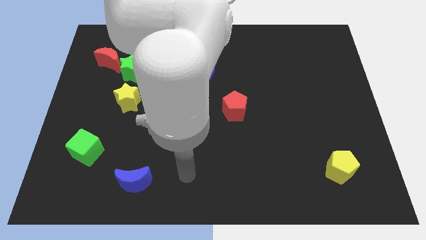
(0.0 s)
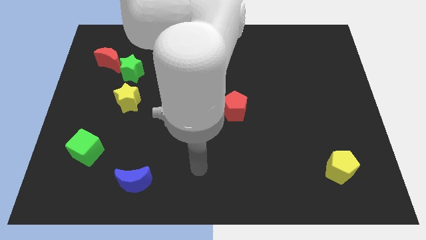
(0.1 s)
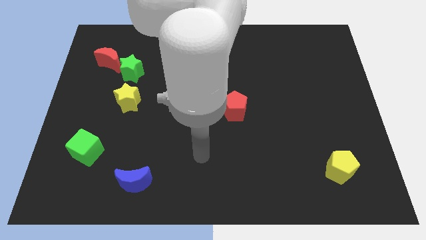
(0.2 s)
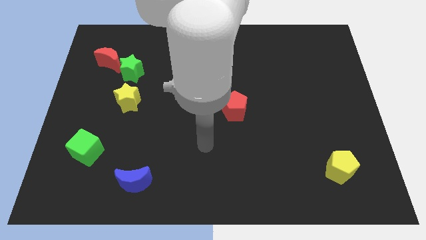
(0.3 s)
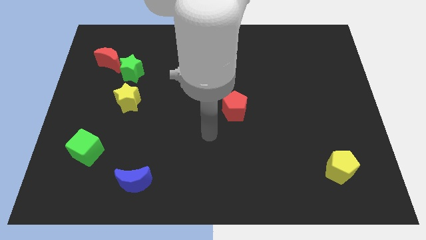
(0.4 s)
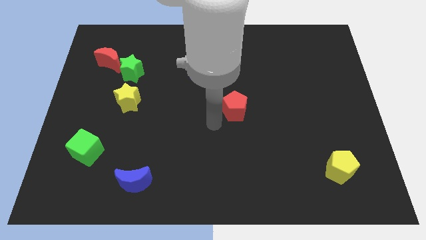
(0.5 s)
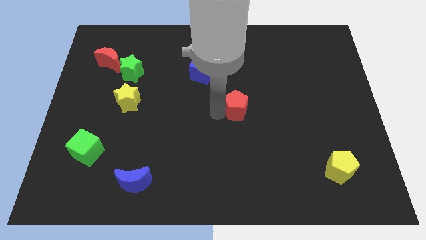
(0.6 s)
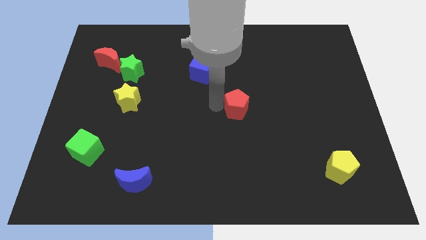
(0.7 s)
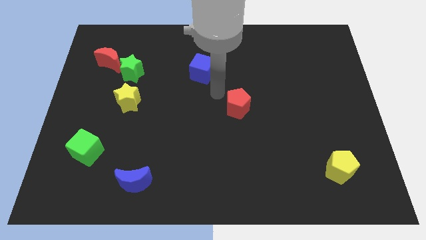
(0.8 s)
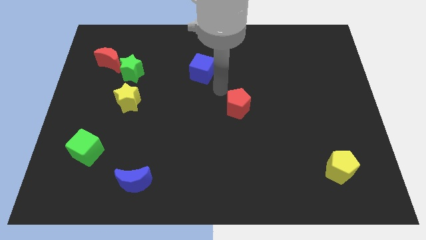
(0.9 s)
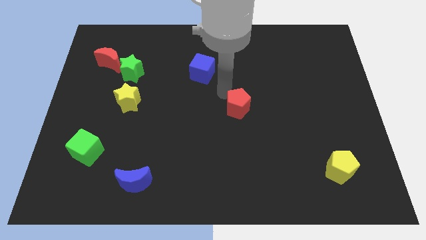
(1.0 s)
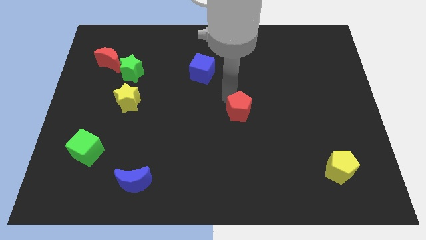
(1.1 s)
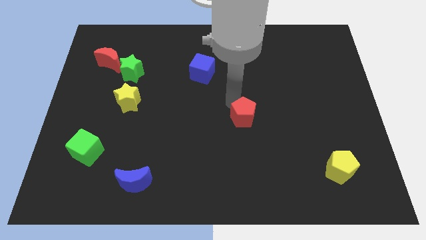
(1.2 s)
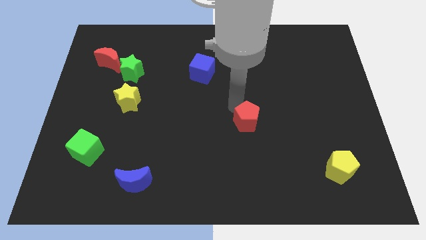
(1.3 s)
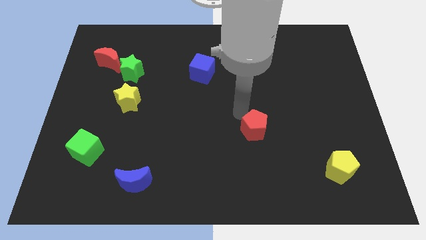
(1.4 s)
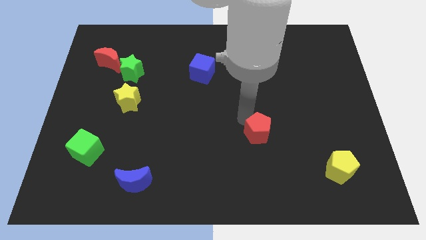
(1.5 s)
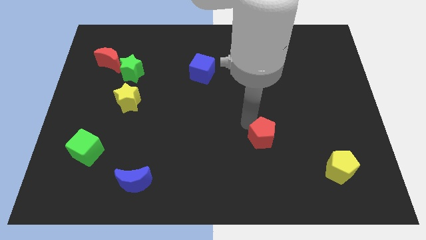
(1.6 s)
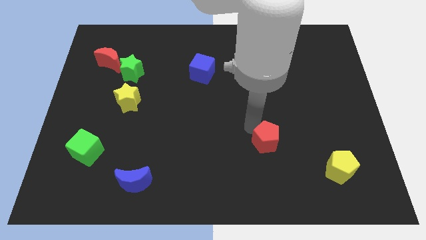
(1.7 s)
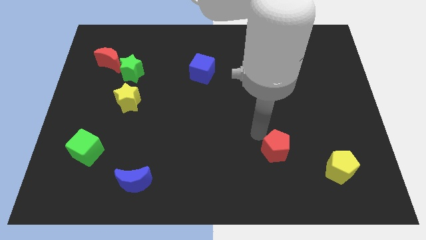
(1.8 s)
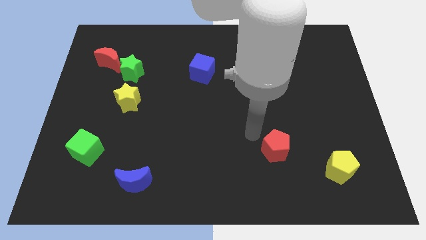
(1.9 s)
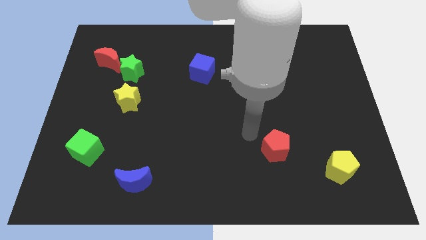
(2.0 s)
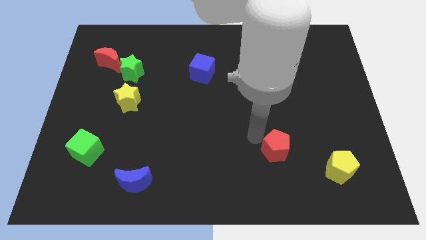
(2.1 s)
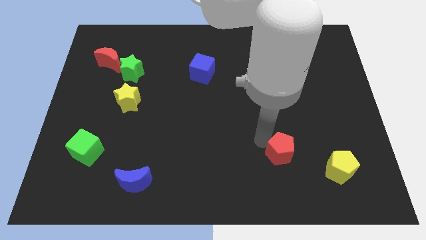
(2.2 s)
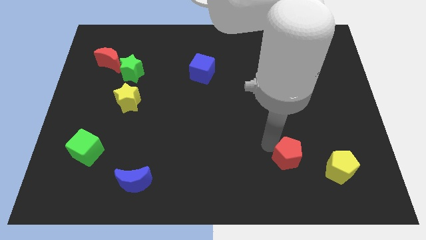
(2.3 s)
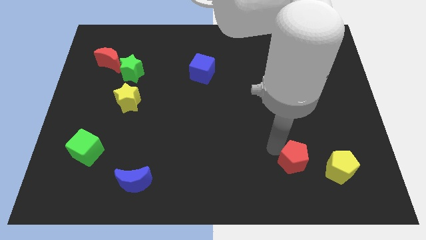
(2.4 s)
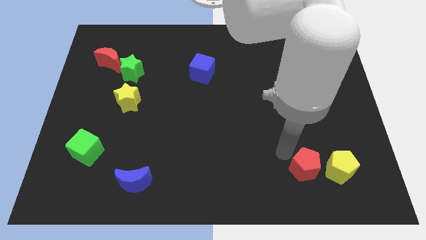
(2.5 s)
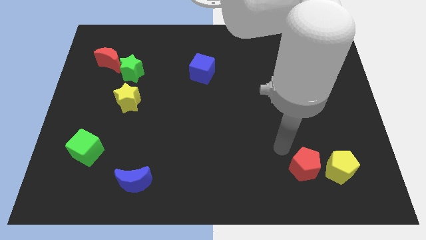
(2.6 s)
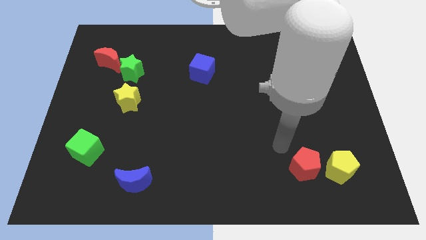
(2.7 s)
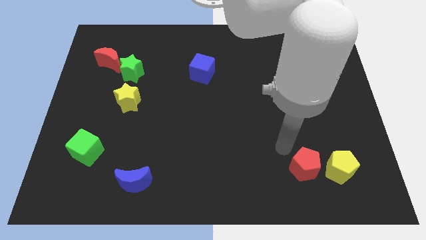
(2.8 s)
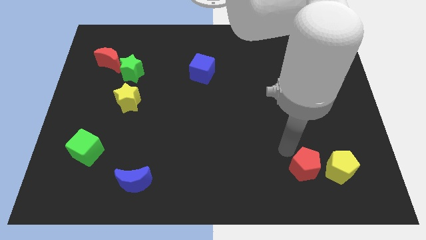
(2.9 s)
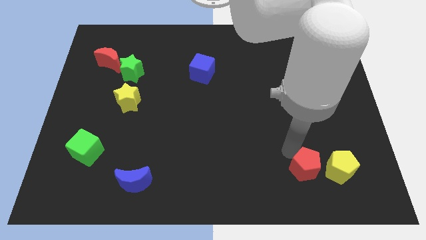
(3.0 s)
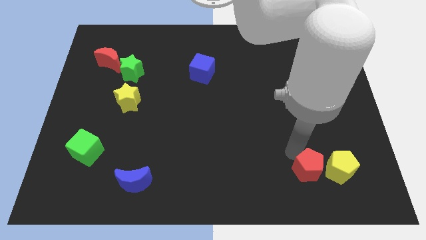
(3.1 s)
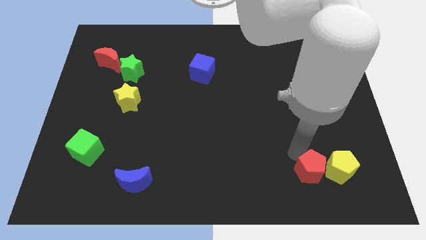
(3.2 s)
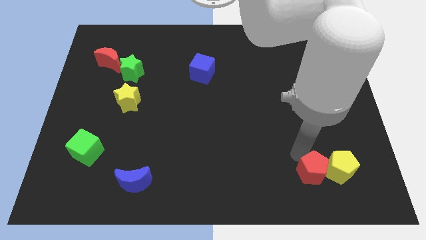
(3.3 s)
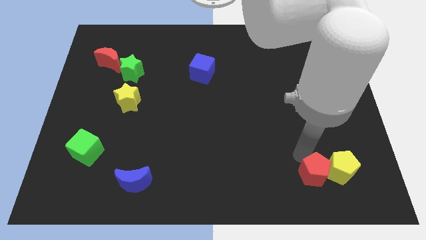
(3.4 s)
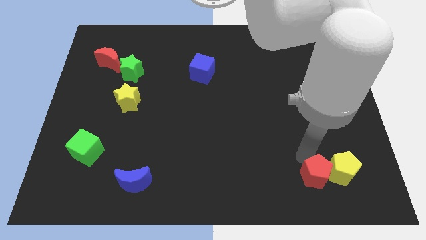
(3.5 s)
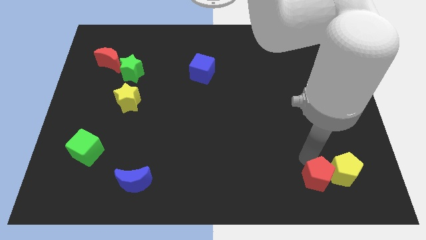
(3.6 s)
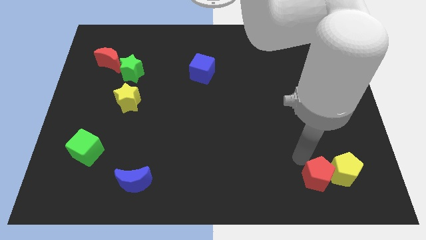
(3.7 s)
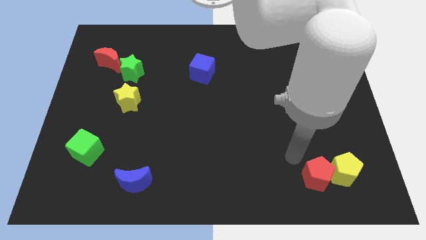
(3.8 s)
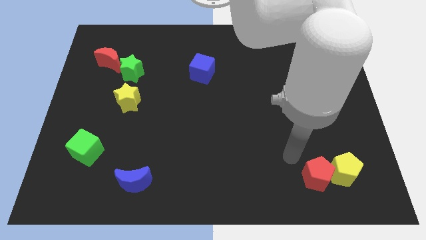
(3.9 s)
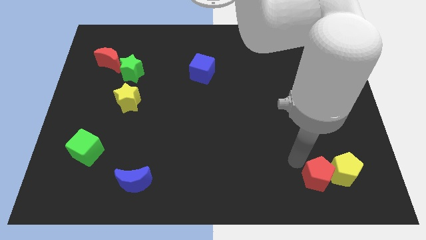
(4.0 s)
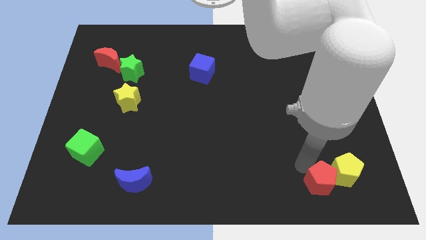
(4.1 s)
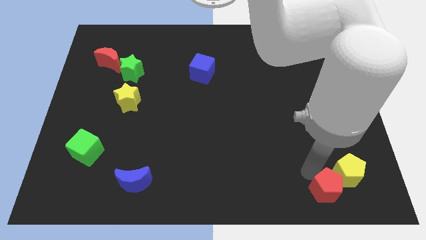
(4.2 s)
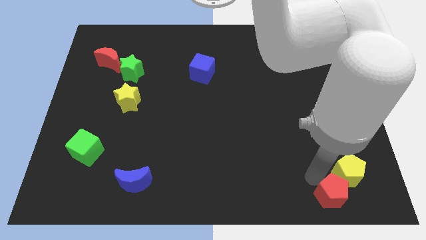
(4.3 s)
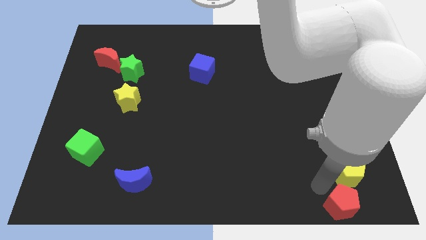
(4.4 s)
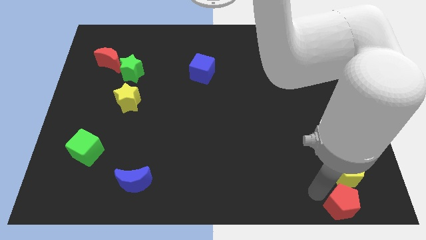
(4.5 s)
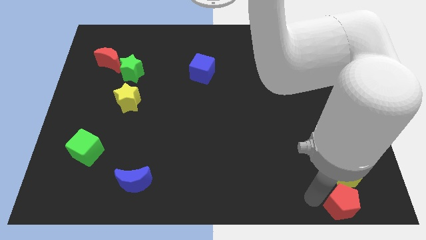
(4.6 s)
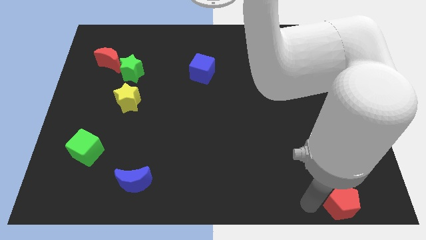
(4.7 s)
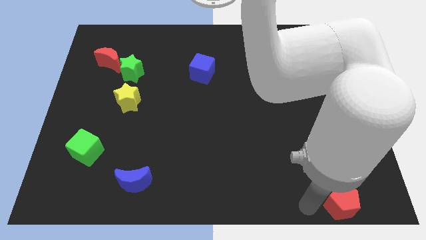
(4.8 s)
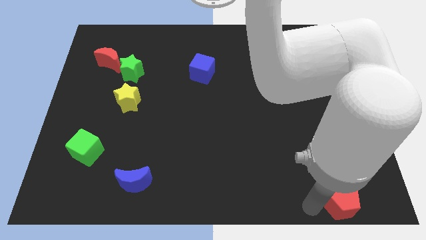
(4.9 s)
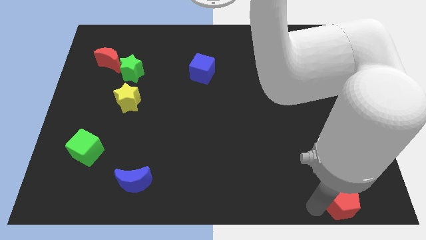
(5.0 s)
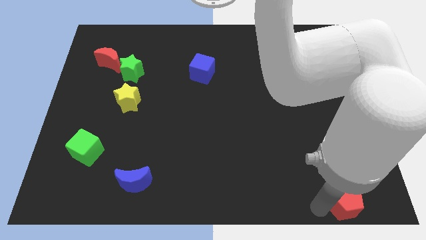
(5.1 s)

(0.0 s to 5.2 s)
move the red pentagon to the lower right corner

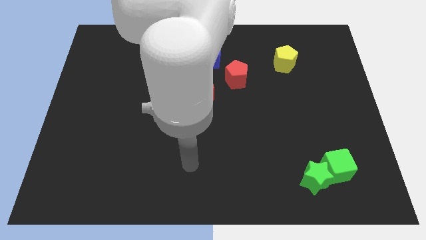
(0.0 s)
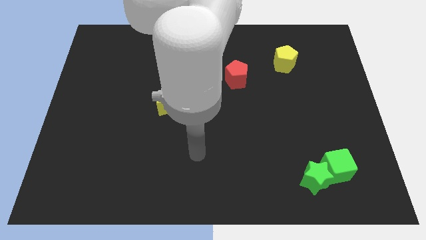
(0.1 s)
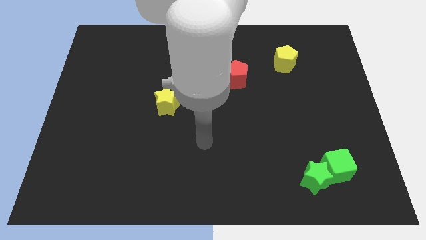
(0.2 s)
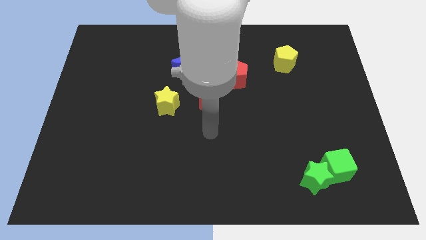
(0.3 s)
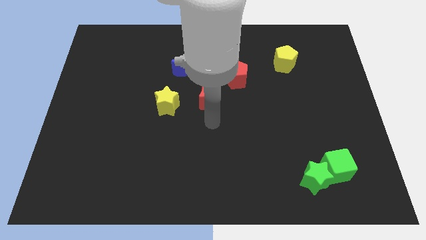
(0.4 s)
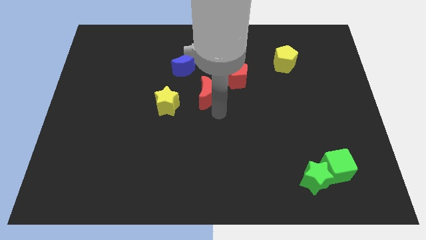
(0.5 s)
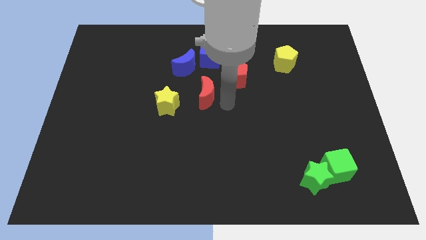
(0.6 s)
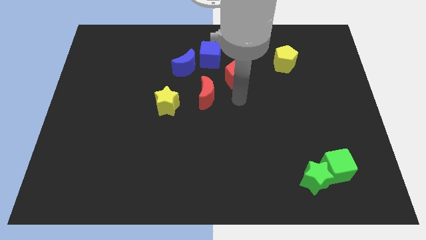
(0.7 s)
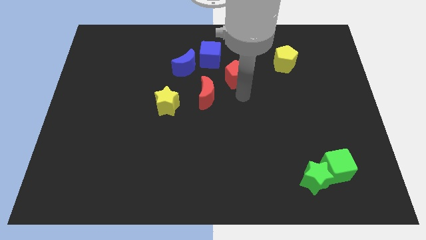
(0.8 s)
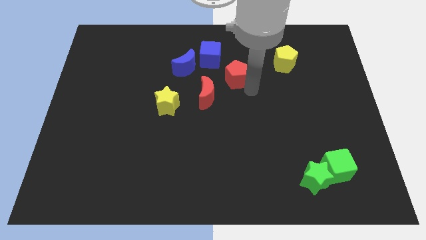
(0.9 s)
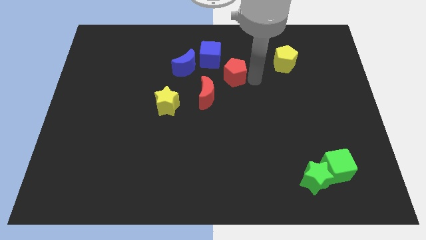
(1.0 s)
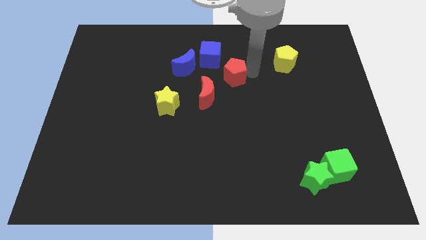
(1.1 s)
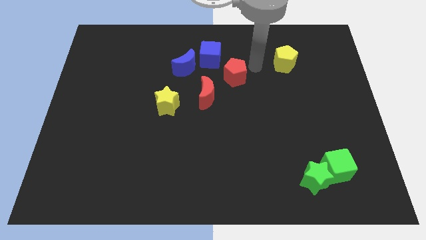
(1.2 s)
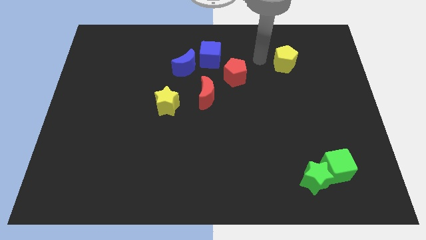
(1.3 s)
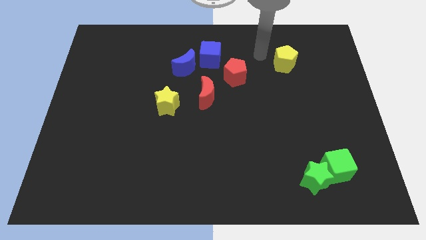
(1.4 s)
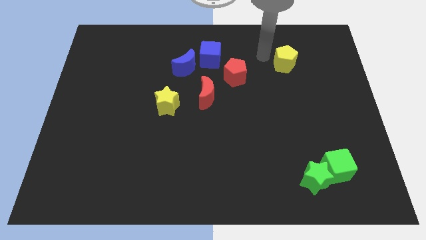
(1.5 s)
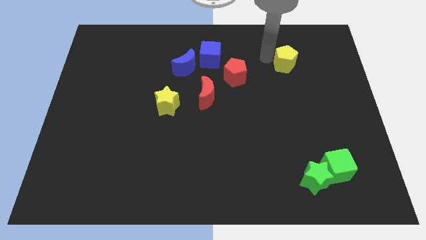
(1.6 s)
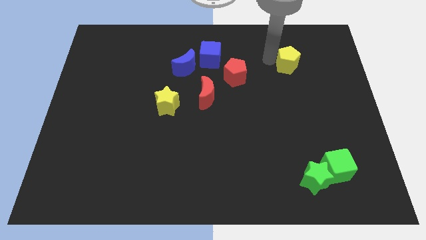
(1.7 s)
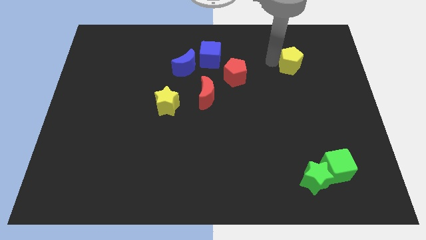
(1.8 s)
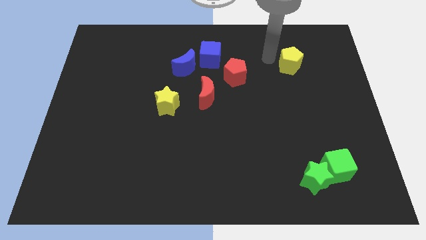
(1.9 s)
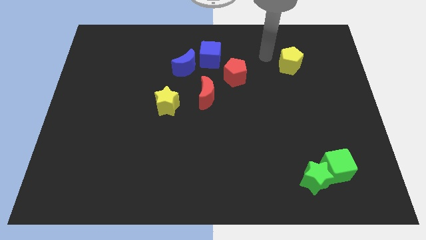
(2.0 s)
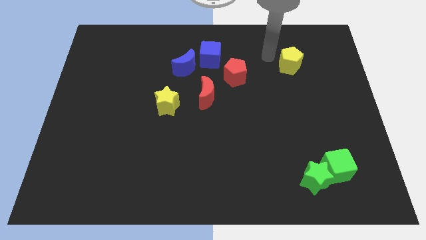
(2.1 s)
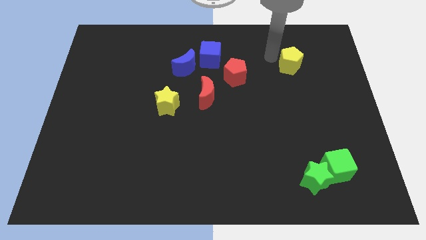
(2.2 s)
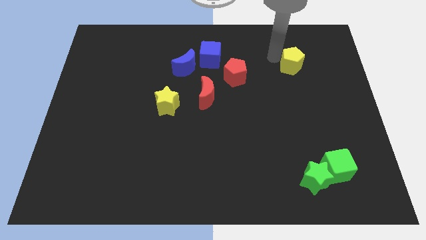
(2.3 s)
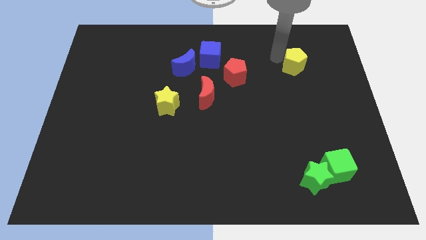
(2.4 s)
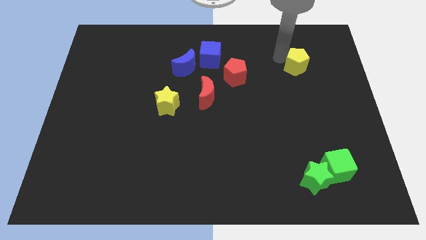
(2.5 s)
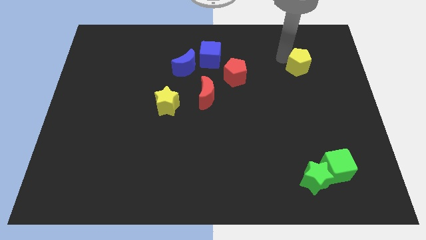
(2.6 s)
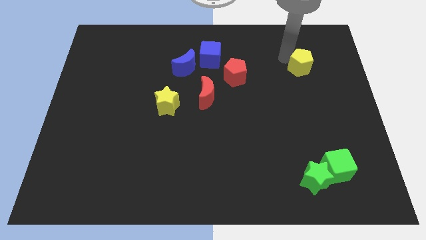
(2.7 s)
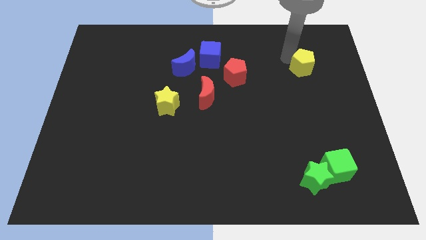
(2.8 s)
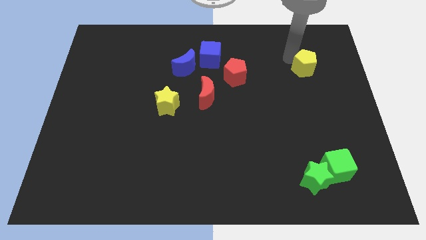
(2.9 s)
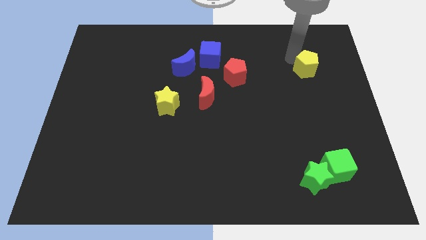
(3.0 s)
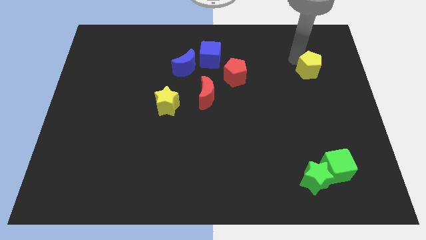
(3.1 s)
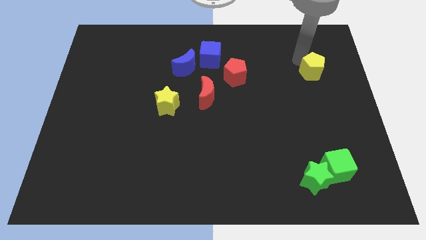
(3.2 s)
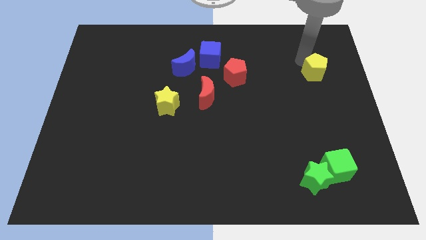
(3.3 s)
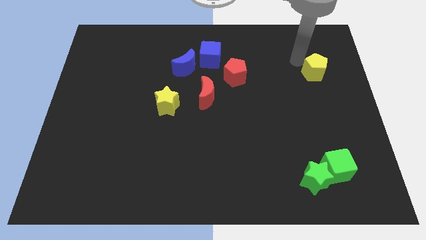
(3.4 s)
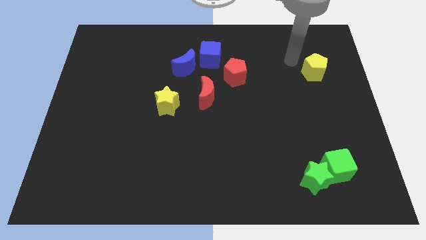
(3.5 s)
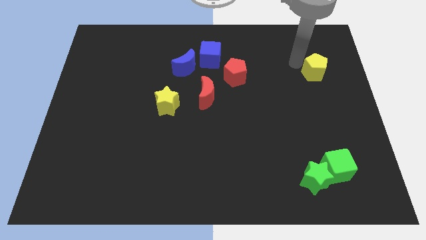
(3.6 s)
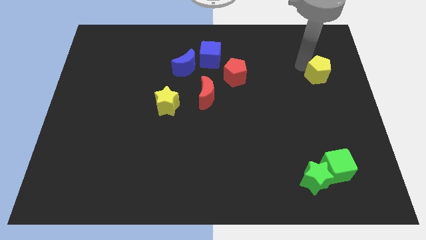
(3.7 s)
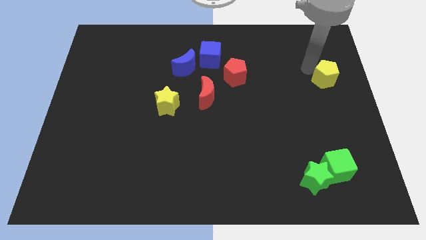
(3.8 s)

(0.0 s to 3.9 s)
move the yellow pentagon to the right side
